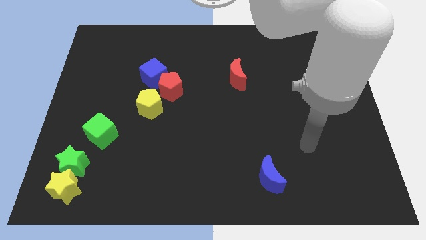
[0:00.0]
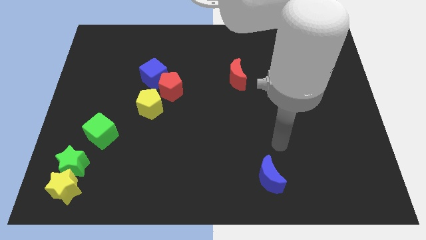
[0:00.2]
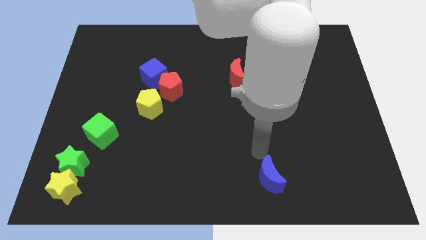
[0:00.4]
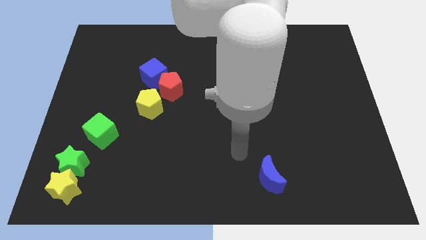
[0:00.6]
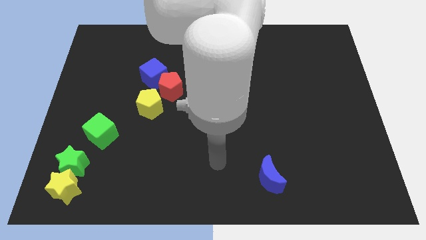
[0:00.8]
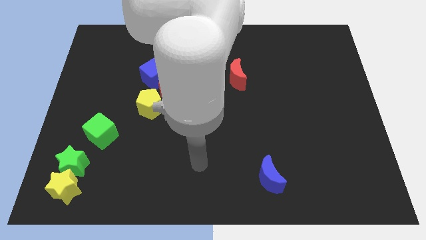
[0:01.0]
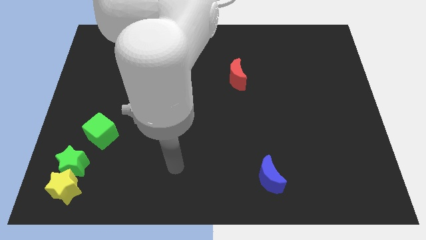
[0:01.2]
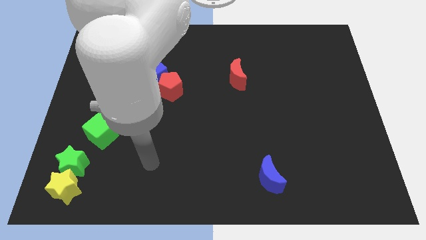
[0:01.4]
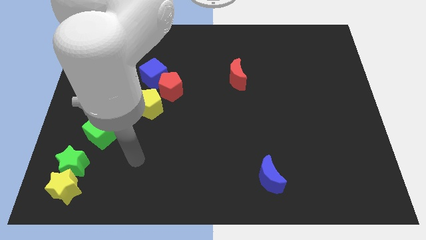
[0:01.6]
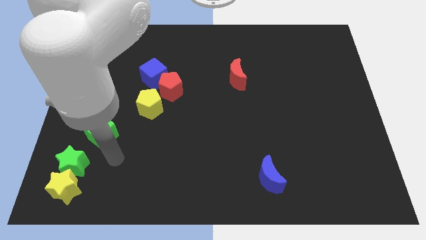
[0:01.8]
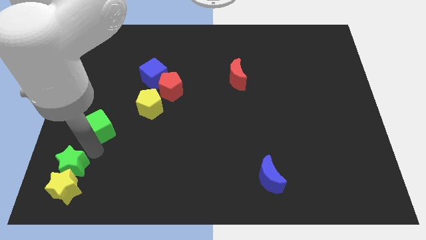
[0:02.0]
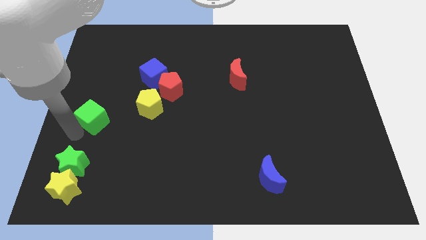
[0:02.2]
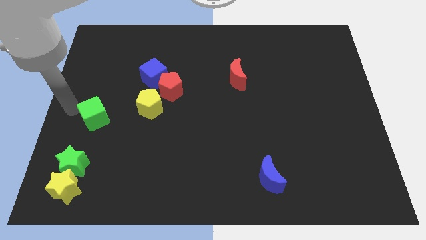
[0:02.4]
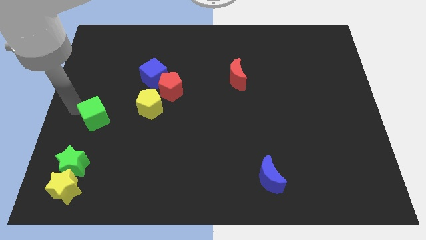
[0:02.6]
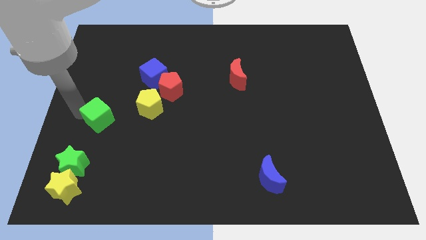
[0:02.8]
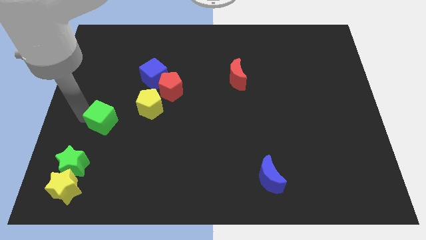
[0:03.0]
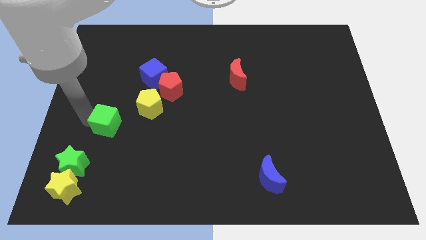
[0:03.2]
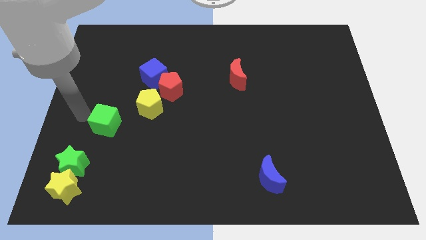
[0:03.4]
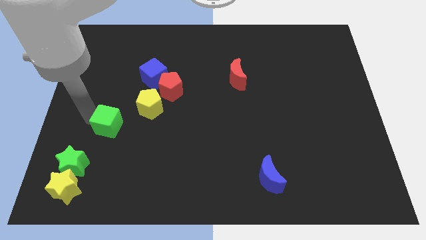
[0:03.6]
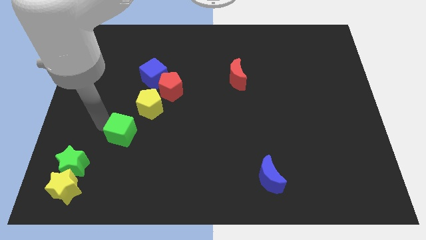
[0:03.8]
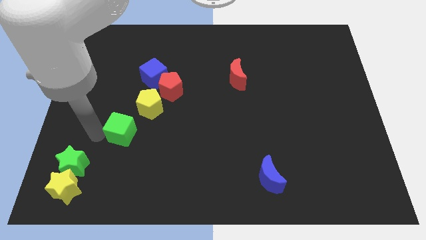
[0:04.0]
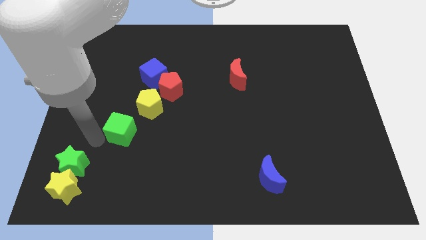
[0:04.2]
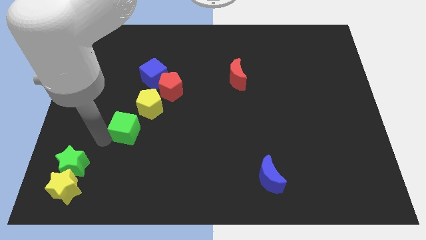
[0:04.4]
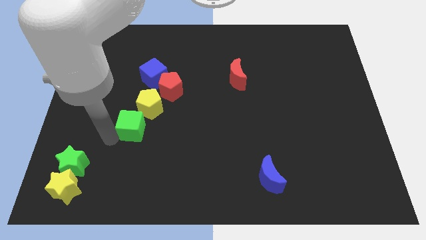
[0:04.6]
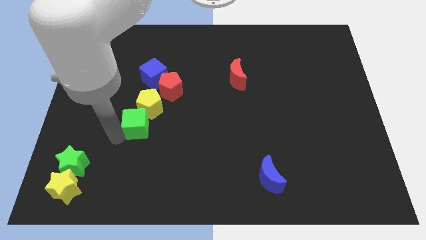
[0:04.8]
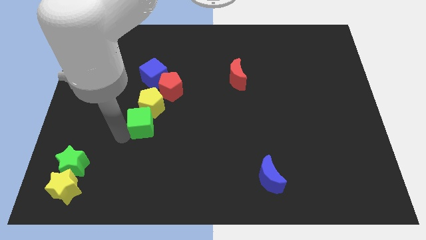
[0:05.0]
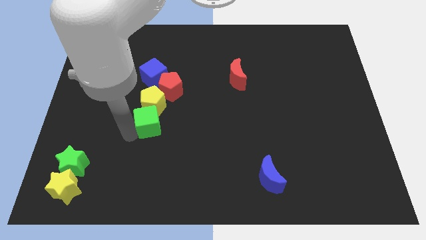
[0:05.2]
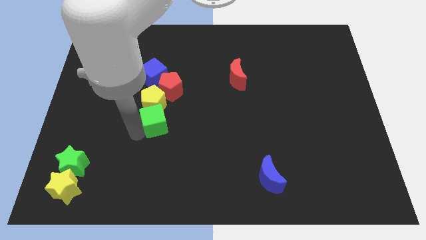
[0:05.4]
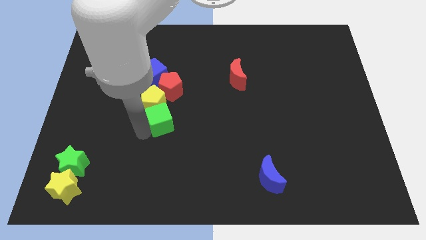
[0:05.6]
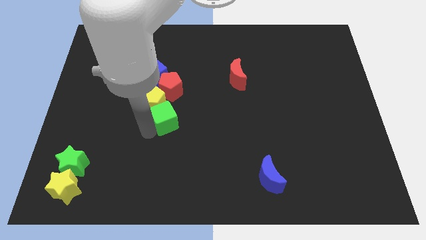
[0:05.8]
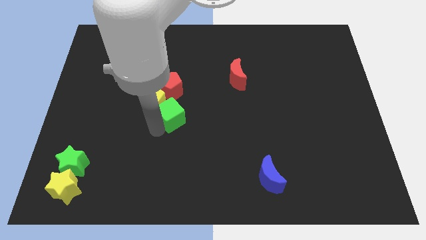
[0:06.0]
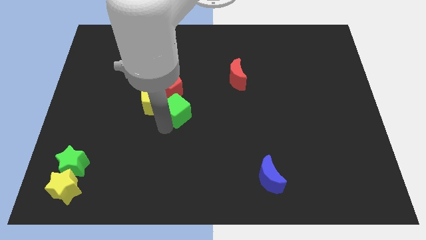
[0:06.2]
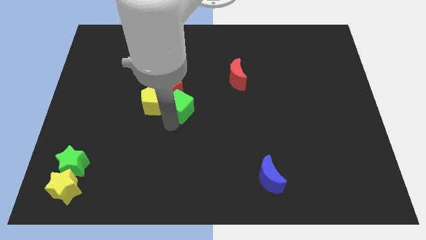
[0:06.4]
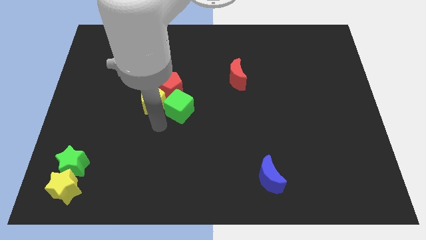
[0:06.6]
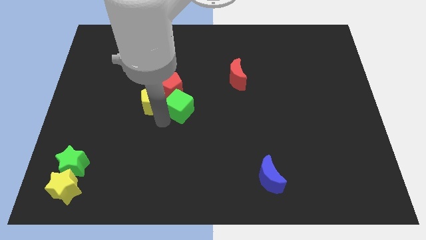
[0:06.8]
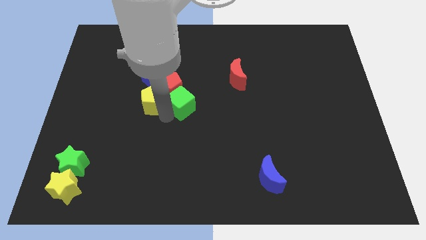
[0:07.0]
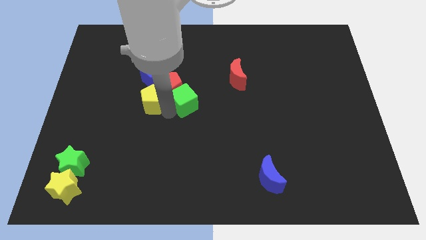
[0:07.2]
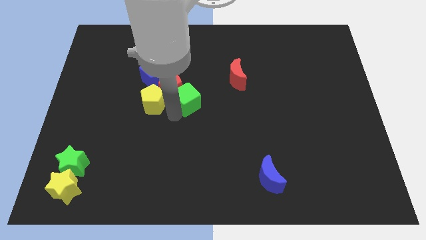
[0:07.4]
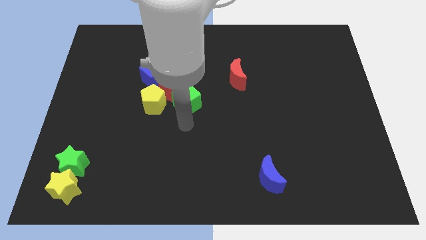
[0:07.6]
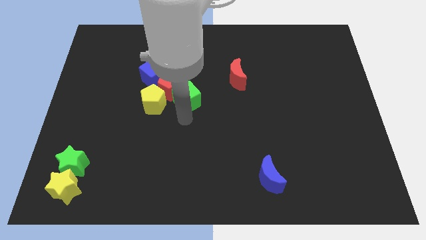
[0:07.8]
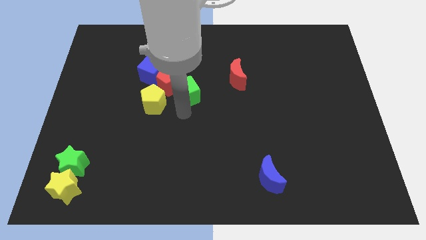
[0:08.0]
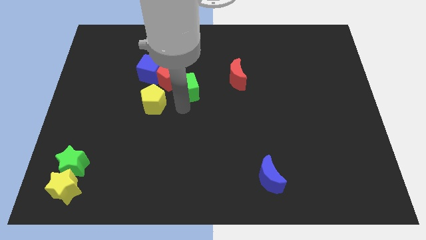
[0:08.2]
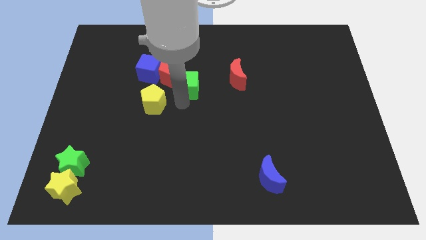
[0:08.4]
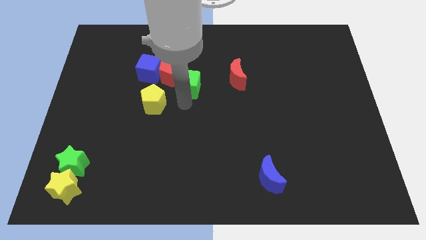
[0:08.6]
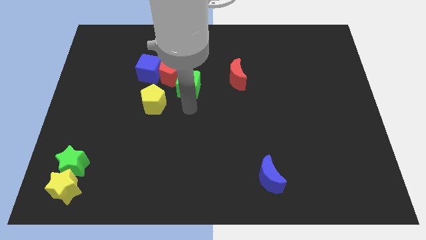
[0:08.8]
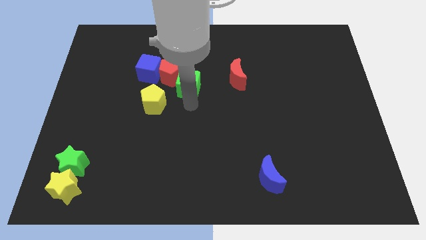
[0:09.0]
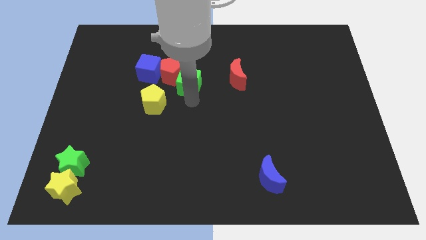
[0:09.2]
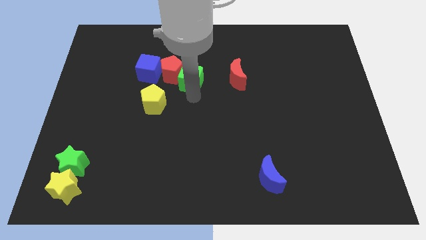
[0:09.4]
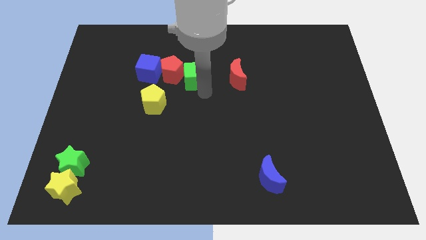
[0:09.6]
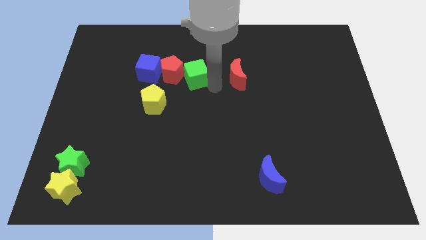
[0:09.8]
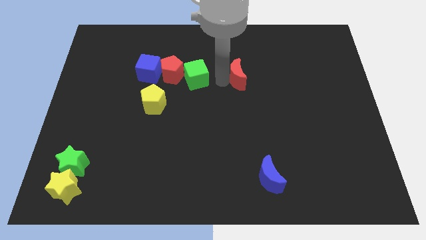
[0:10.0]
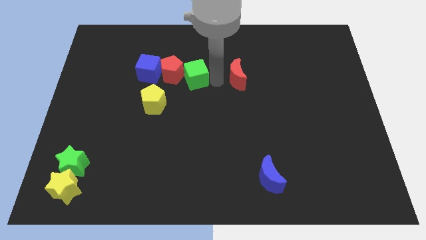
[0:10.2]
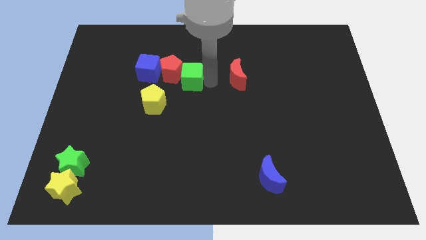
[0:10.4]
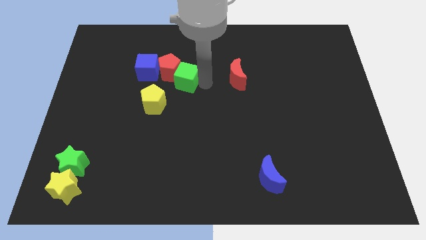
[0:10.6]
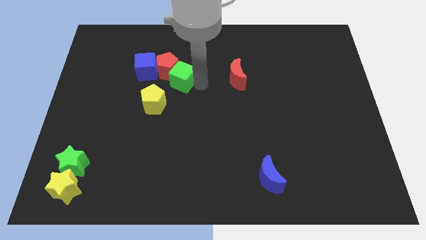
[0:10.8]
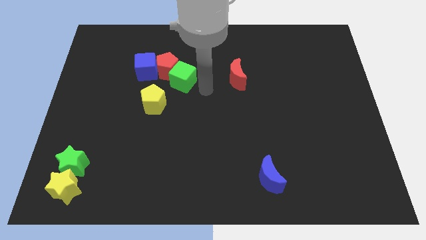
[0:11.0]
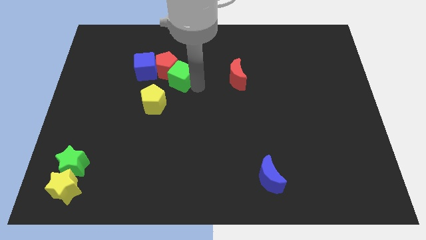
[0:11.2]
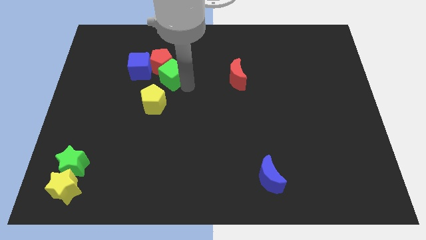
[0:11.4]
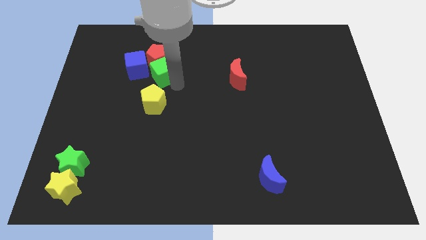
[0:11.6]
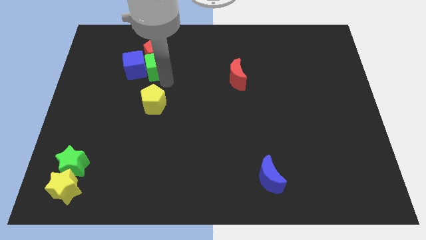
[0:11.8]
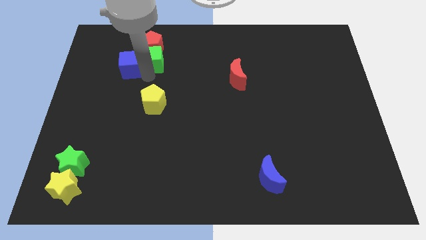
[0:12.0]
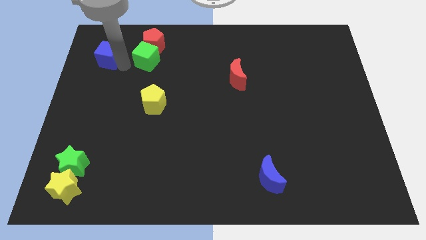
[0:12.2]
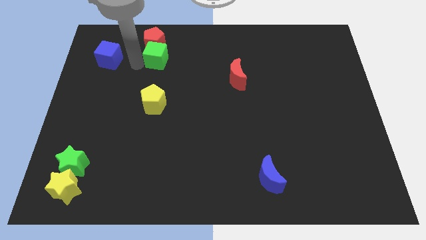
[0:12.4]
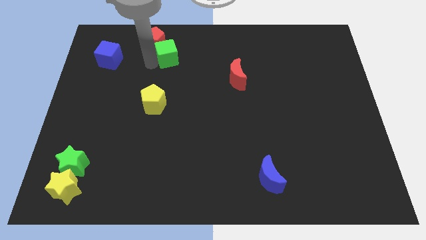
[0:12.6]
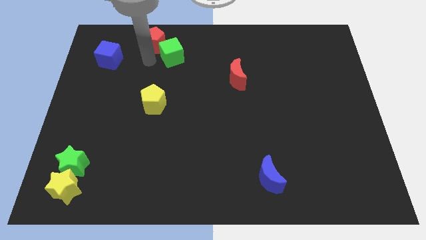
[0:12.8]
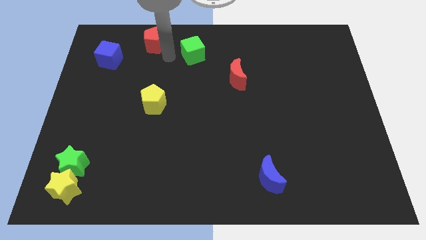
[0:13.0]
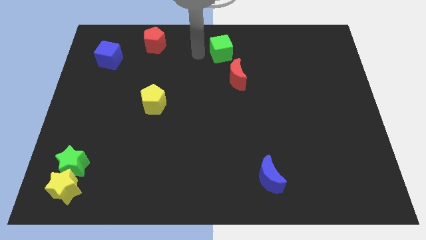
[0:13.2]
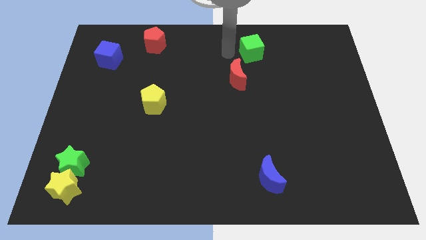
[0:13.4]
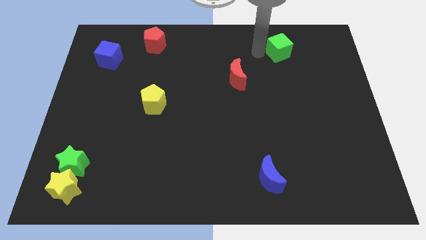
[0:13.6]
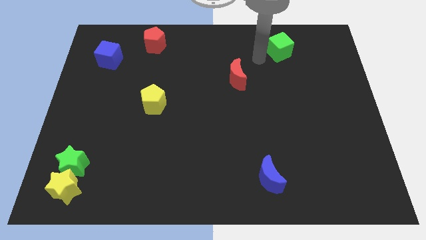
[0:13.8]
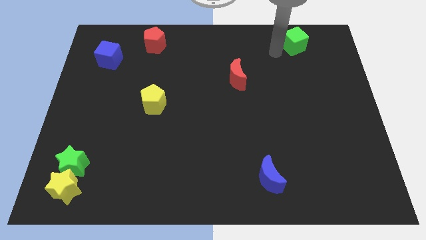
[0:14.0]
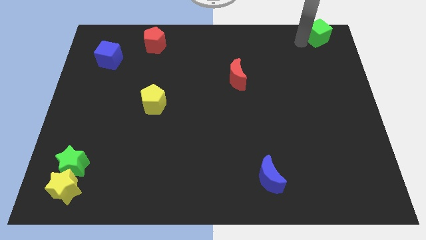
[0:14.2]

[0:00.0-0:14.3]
slide the green cube to the top right of the board

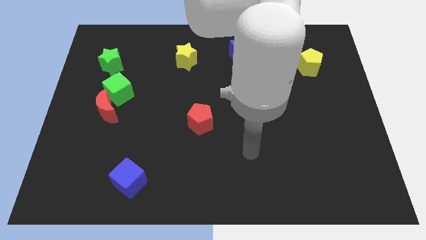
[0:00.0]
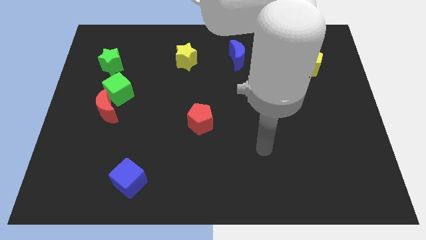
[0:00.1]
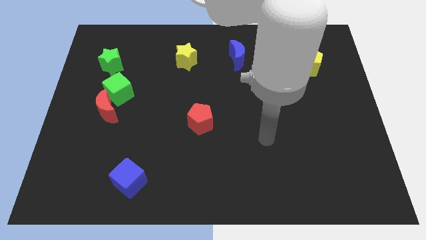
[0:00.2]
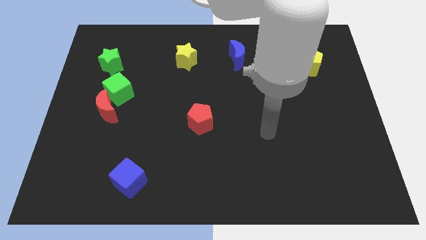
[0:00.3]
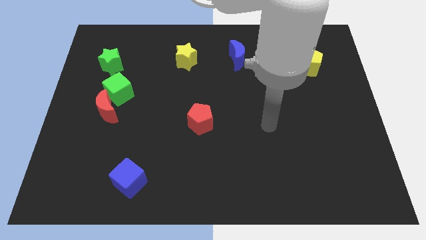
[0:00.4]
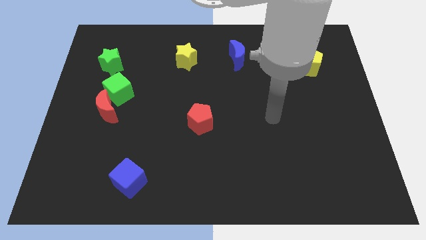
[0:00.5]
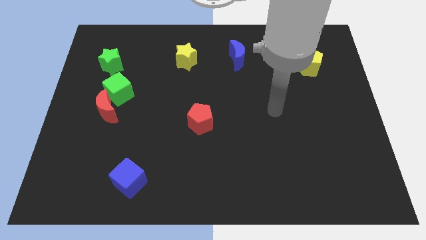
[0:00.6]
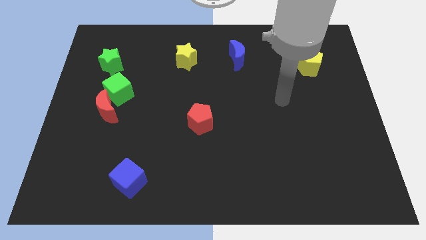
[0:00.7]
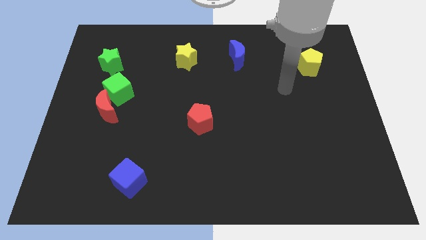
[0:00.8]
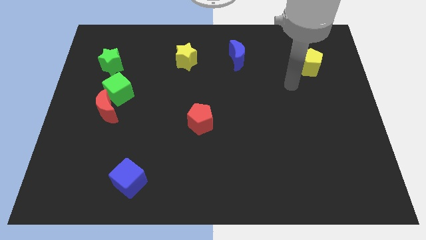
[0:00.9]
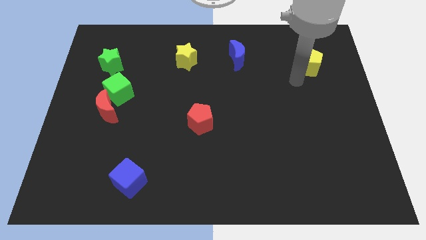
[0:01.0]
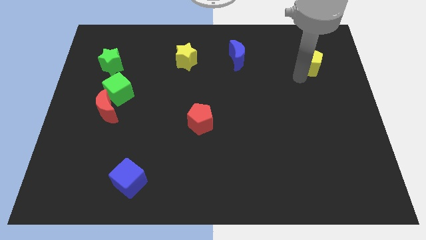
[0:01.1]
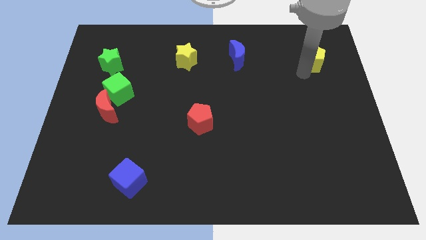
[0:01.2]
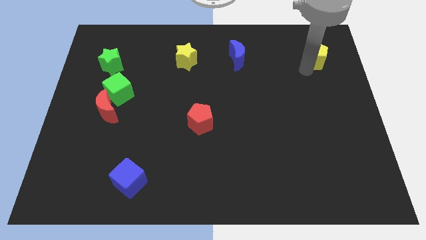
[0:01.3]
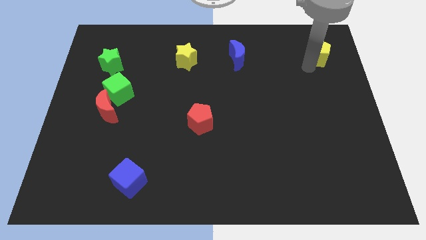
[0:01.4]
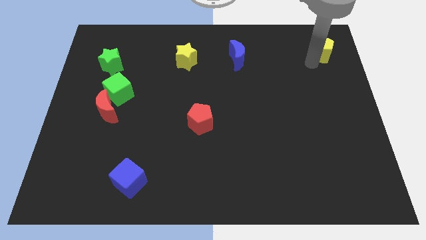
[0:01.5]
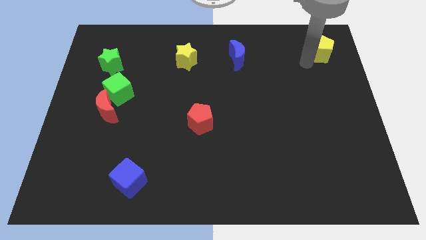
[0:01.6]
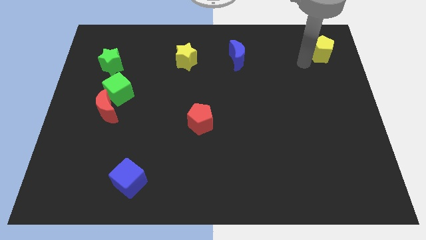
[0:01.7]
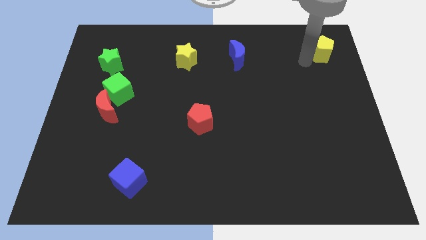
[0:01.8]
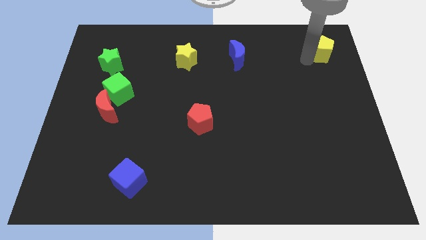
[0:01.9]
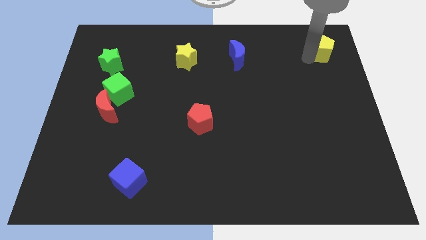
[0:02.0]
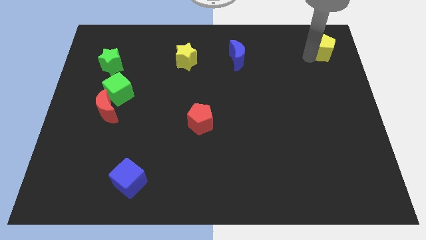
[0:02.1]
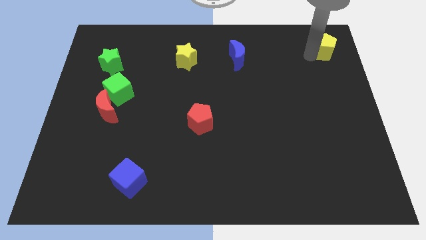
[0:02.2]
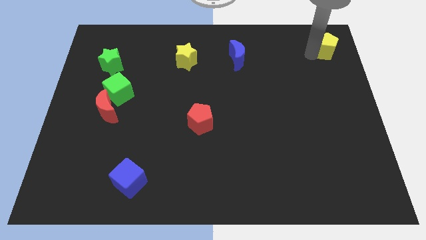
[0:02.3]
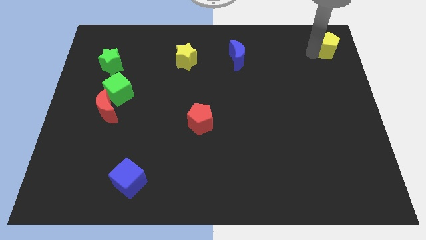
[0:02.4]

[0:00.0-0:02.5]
put the yellow pentagon to the upper right corner
